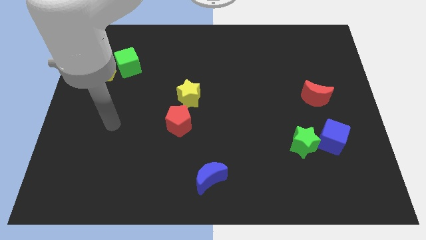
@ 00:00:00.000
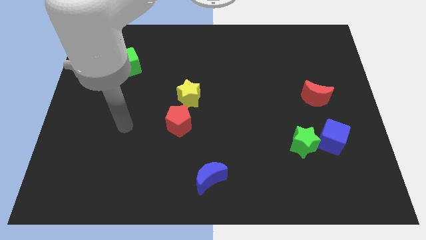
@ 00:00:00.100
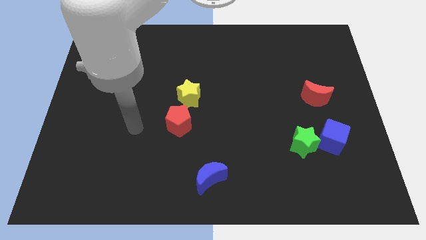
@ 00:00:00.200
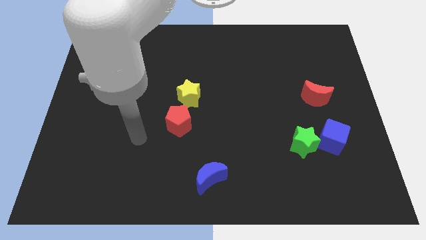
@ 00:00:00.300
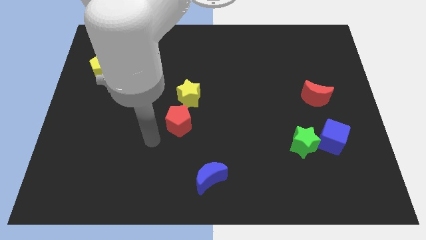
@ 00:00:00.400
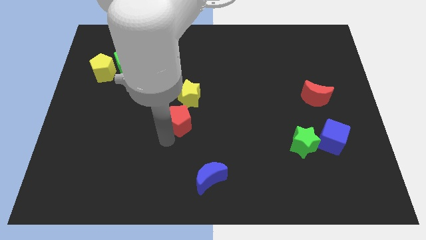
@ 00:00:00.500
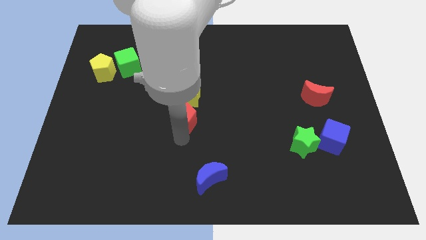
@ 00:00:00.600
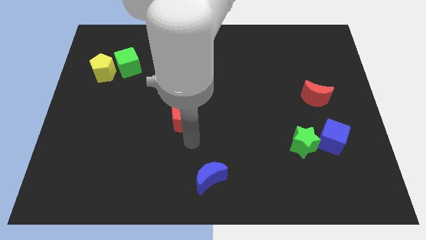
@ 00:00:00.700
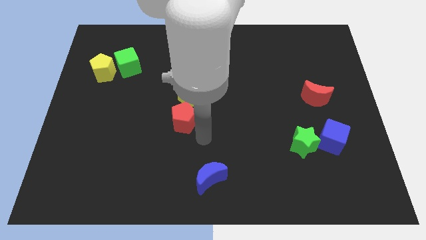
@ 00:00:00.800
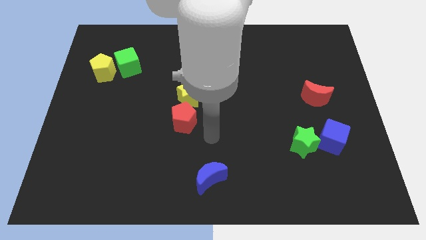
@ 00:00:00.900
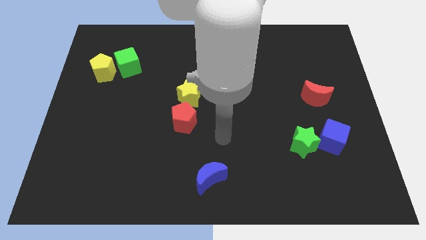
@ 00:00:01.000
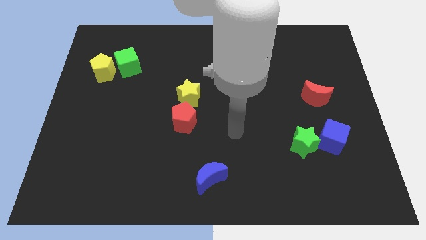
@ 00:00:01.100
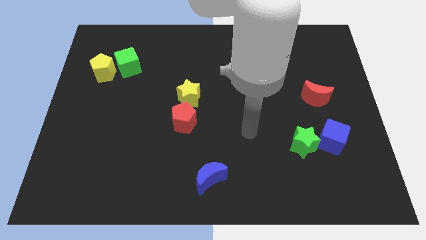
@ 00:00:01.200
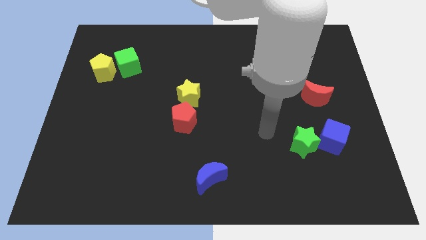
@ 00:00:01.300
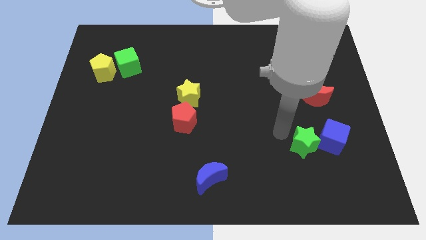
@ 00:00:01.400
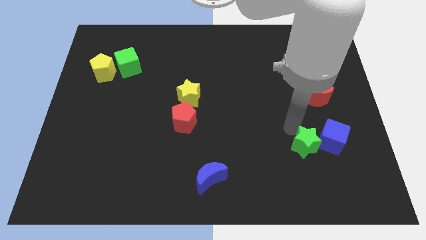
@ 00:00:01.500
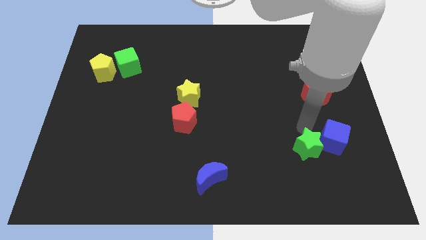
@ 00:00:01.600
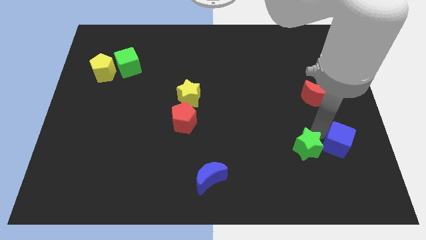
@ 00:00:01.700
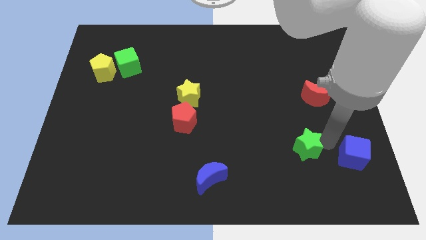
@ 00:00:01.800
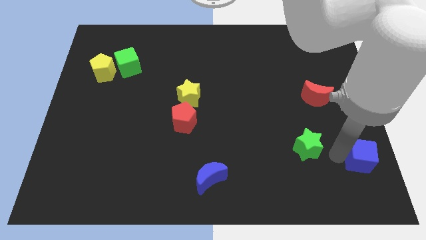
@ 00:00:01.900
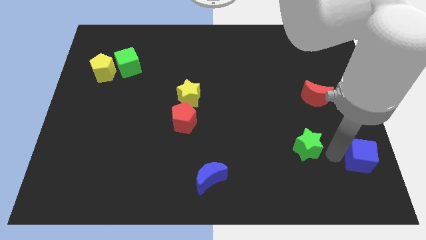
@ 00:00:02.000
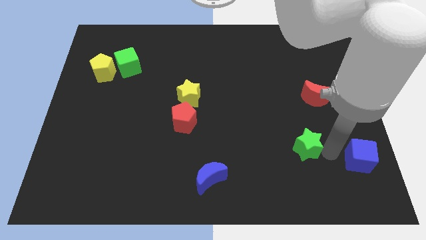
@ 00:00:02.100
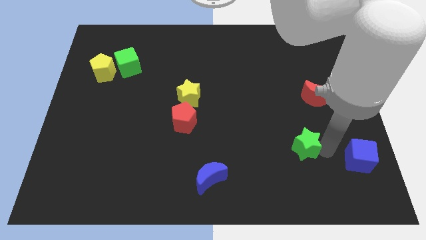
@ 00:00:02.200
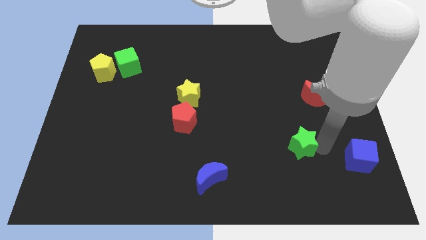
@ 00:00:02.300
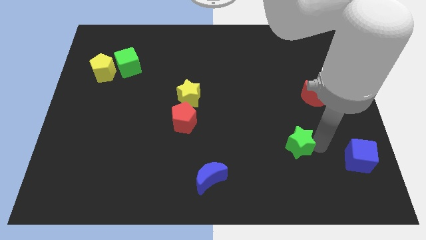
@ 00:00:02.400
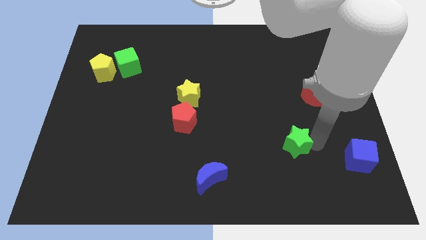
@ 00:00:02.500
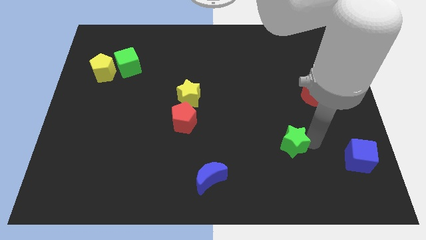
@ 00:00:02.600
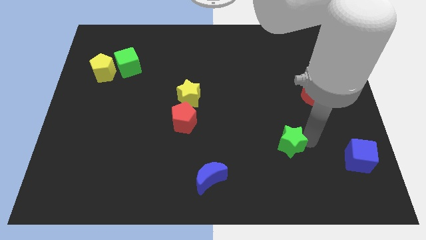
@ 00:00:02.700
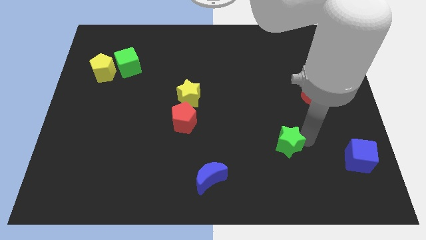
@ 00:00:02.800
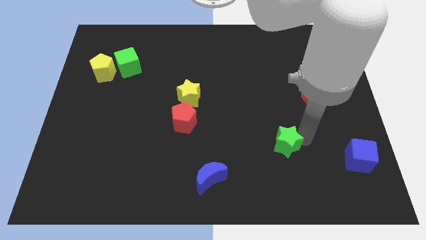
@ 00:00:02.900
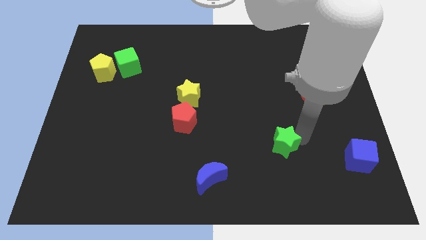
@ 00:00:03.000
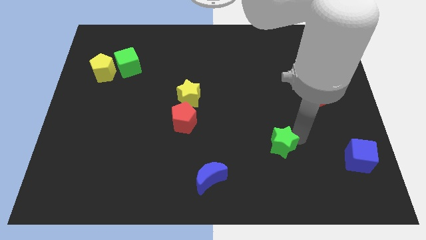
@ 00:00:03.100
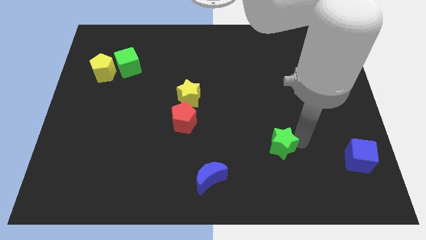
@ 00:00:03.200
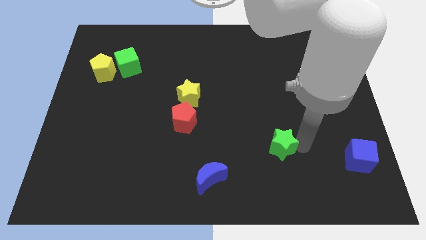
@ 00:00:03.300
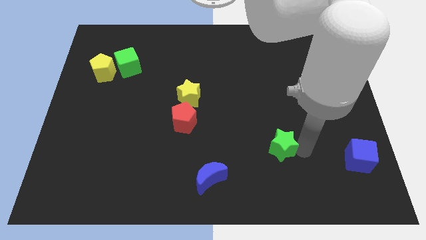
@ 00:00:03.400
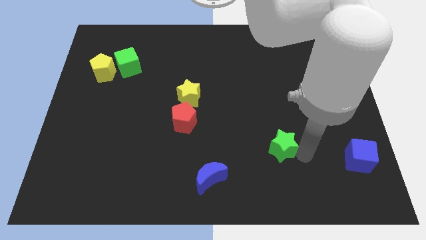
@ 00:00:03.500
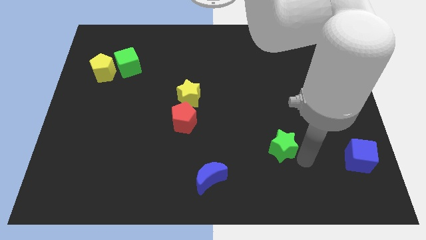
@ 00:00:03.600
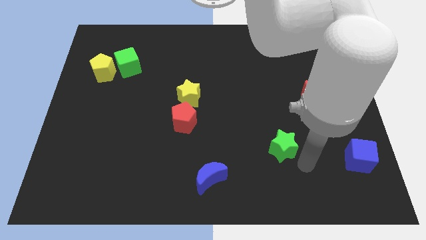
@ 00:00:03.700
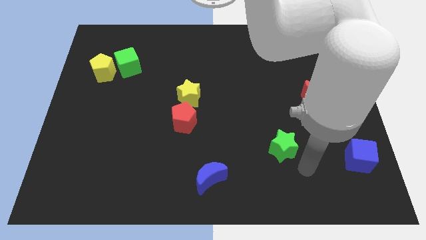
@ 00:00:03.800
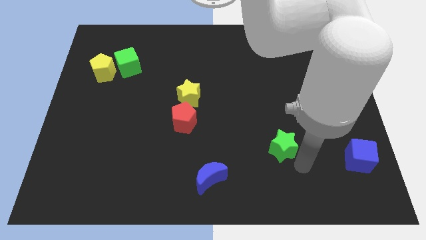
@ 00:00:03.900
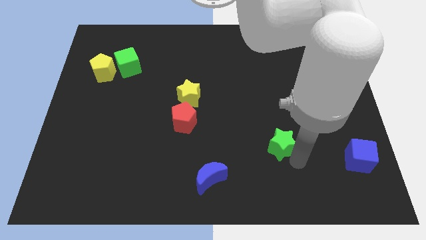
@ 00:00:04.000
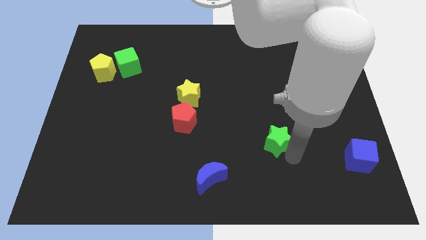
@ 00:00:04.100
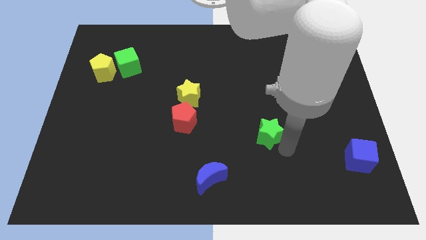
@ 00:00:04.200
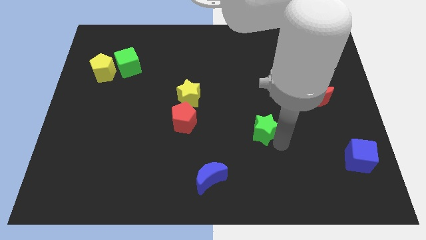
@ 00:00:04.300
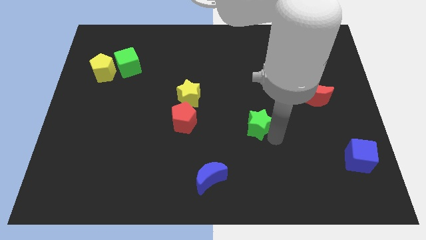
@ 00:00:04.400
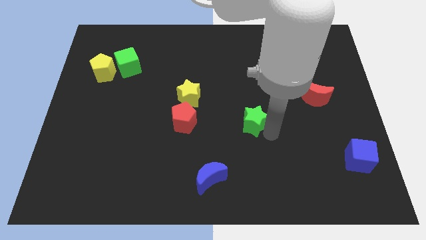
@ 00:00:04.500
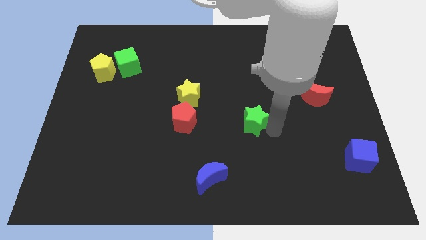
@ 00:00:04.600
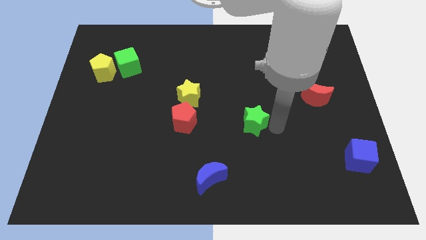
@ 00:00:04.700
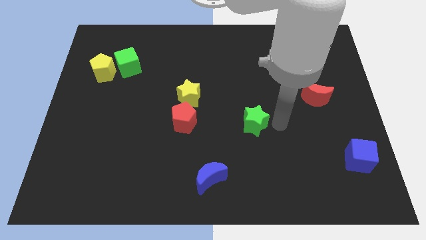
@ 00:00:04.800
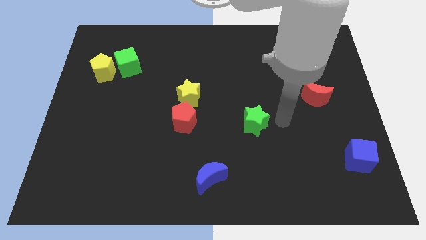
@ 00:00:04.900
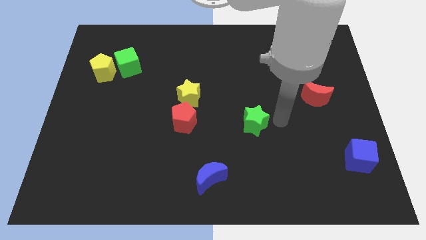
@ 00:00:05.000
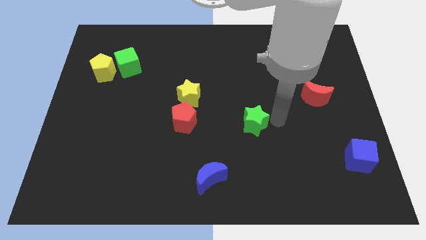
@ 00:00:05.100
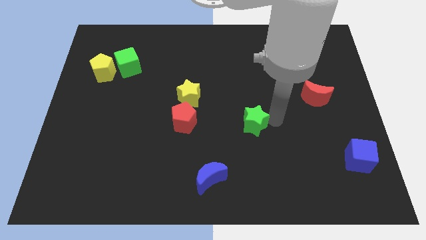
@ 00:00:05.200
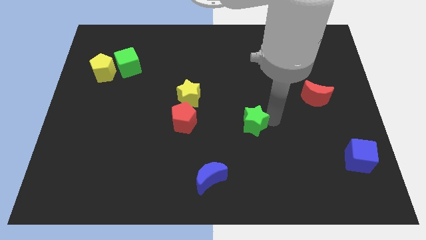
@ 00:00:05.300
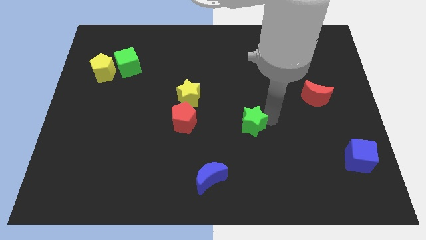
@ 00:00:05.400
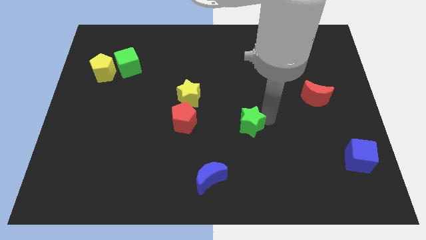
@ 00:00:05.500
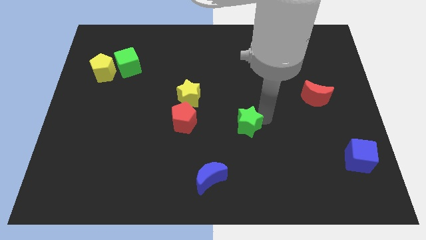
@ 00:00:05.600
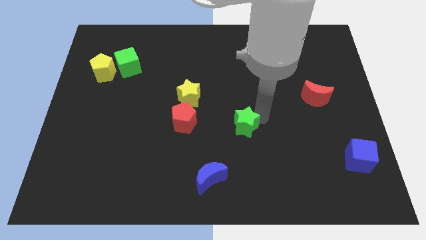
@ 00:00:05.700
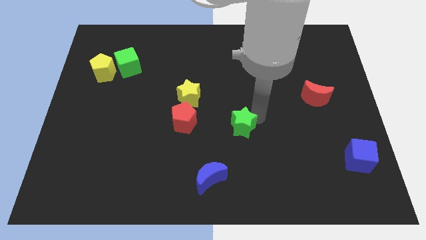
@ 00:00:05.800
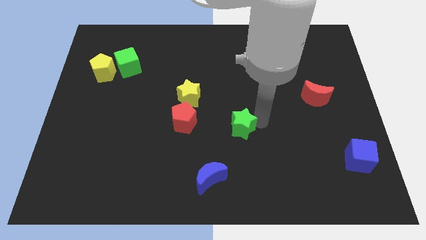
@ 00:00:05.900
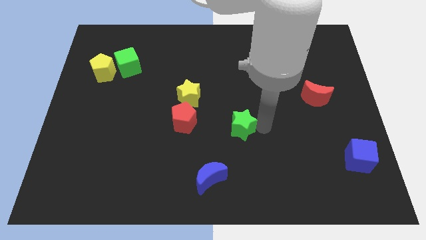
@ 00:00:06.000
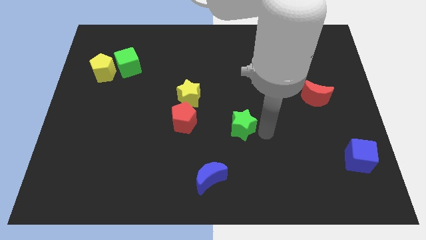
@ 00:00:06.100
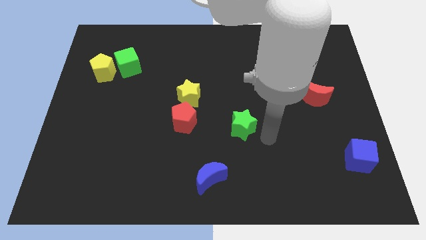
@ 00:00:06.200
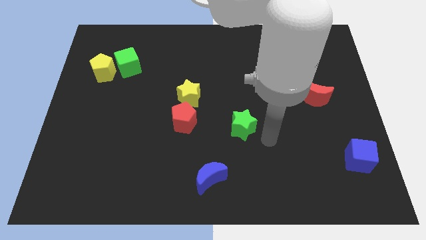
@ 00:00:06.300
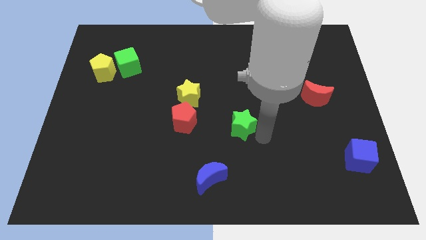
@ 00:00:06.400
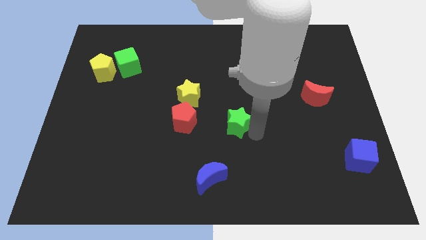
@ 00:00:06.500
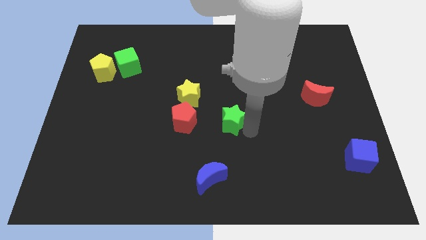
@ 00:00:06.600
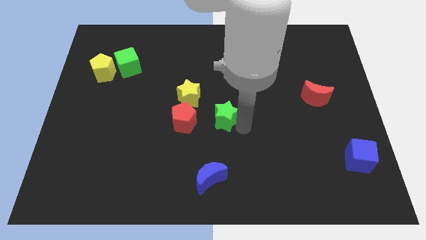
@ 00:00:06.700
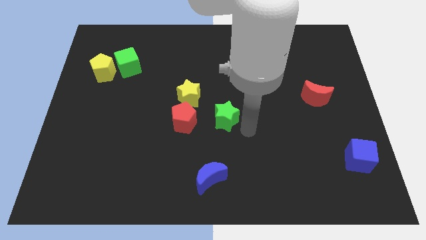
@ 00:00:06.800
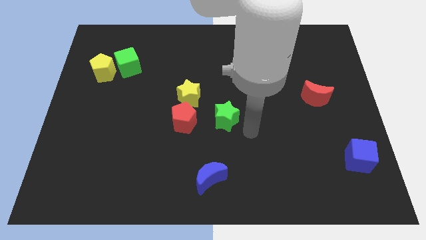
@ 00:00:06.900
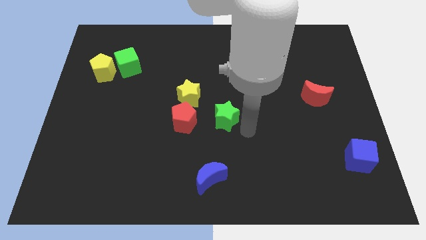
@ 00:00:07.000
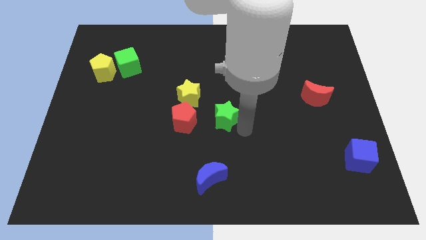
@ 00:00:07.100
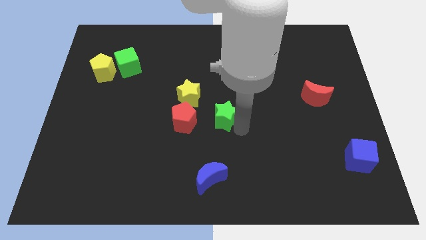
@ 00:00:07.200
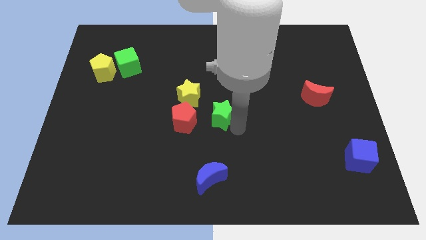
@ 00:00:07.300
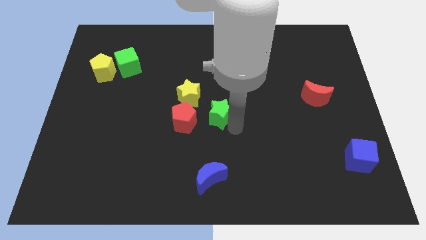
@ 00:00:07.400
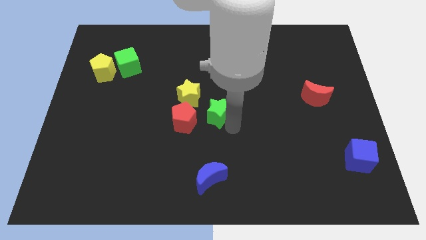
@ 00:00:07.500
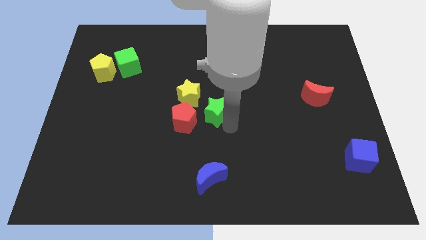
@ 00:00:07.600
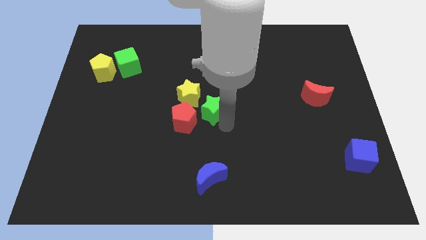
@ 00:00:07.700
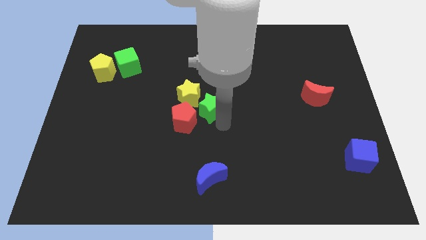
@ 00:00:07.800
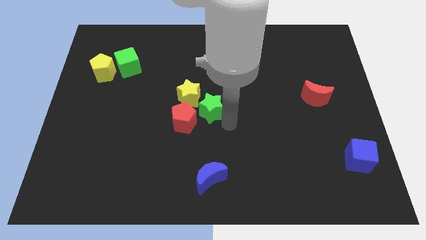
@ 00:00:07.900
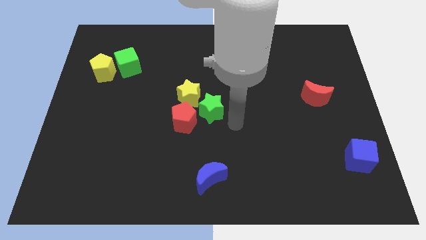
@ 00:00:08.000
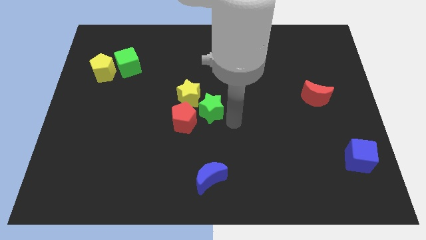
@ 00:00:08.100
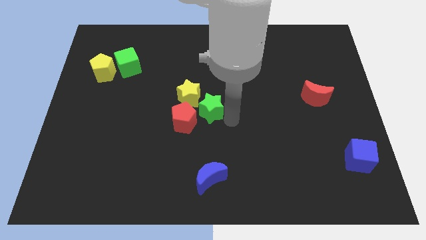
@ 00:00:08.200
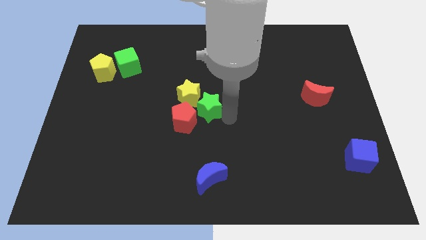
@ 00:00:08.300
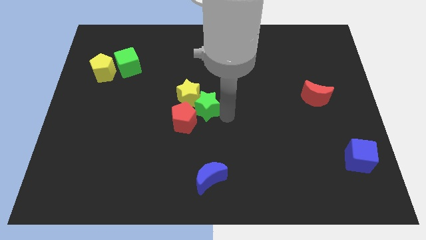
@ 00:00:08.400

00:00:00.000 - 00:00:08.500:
push the green star to the yellow star
